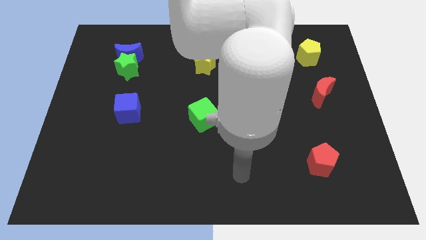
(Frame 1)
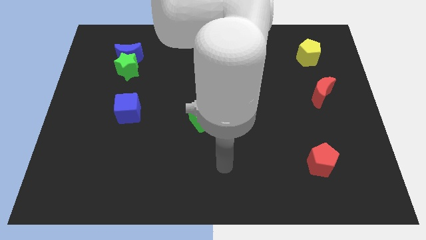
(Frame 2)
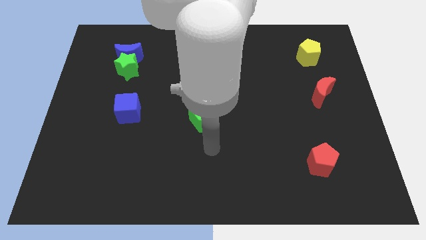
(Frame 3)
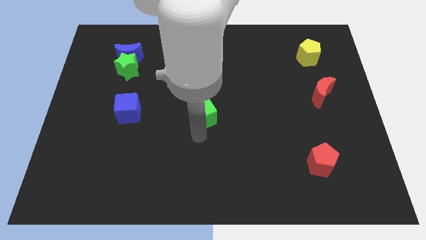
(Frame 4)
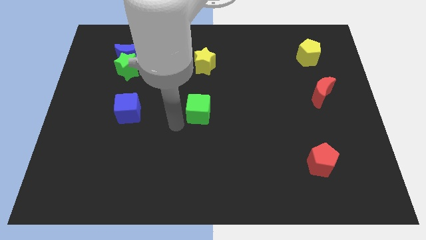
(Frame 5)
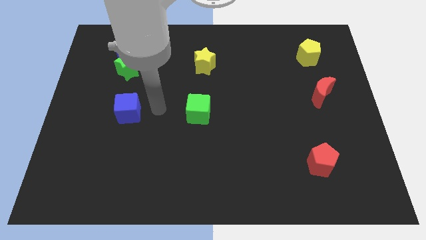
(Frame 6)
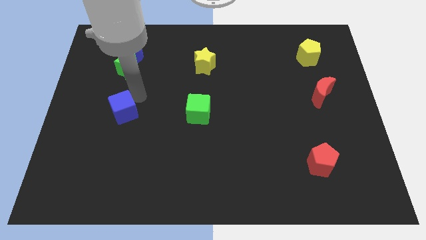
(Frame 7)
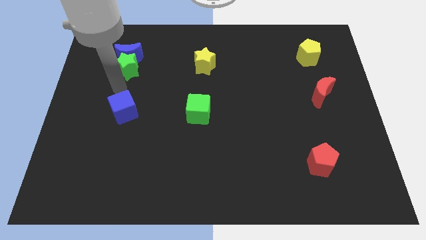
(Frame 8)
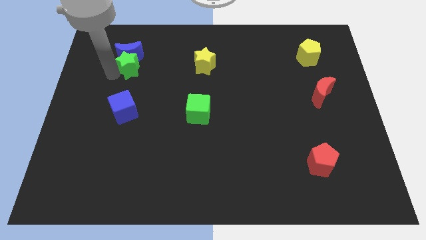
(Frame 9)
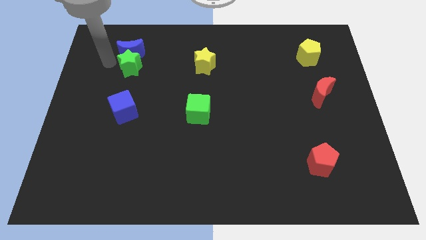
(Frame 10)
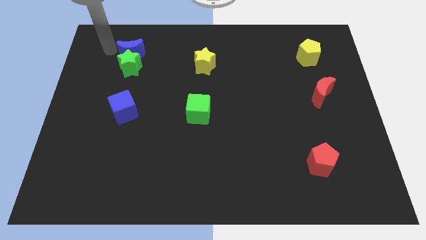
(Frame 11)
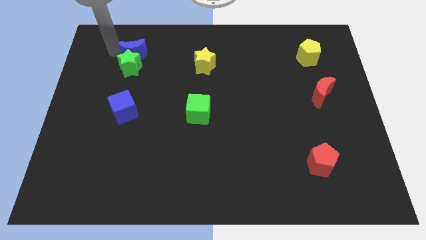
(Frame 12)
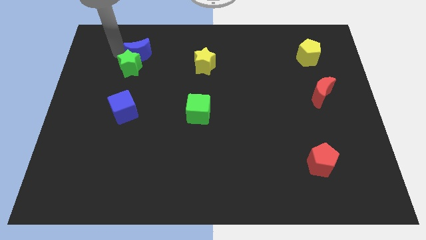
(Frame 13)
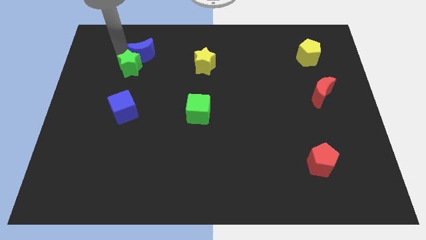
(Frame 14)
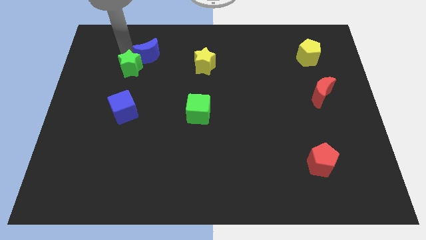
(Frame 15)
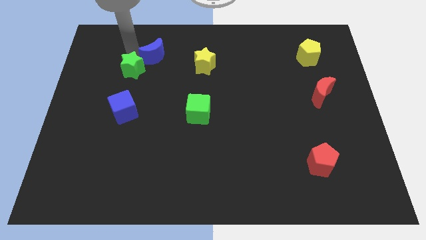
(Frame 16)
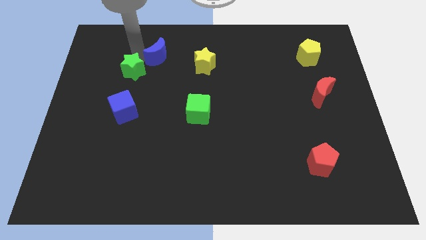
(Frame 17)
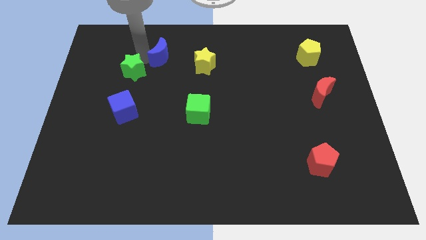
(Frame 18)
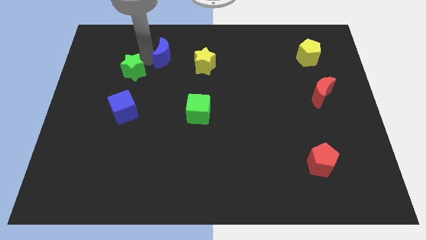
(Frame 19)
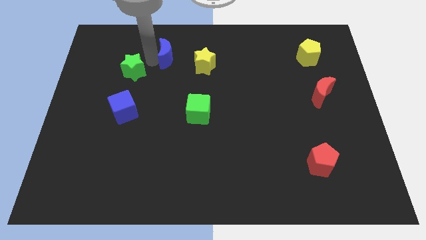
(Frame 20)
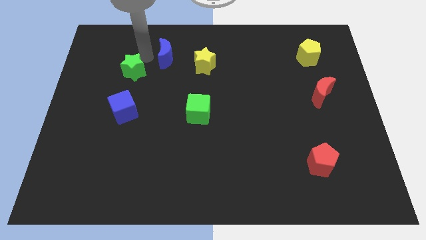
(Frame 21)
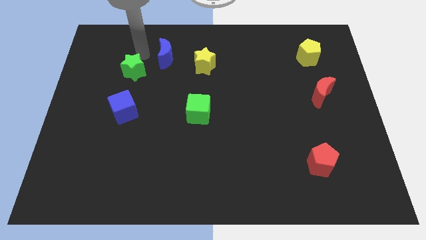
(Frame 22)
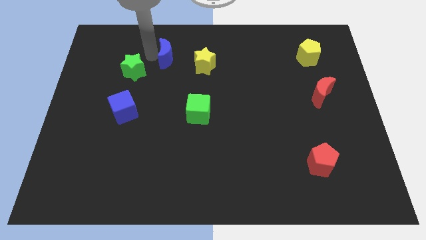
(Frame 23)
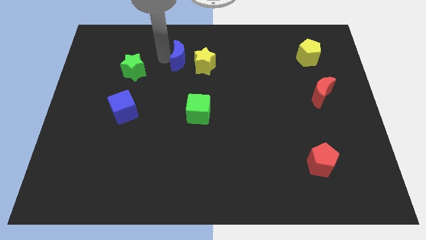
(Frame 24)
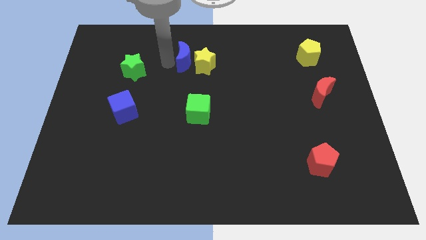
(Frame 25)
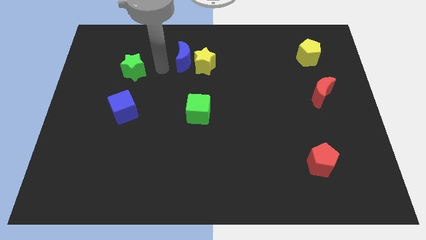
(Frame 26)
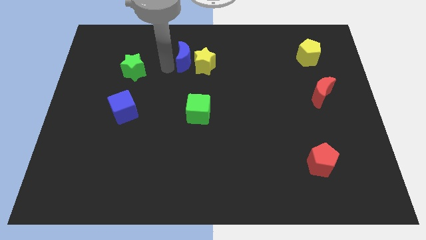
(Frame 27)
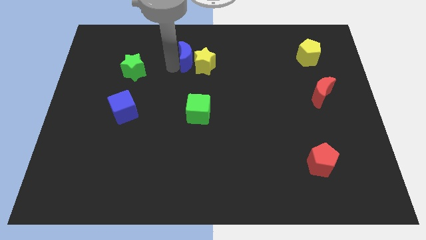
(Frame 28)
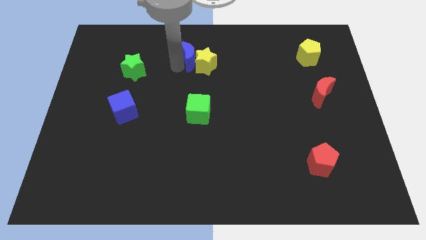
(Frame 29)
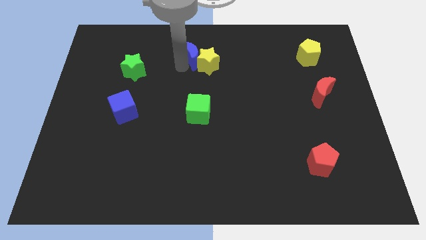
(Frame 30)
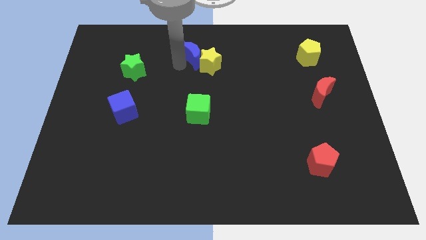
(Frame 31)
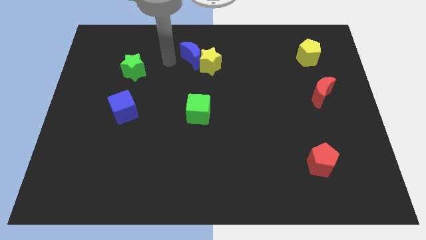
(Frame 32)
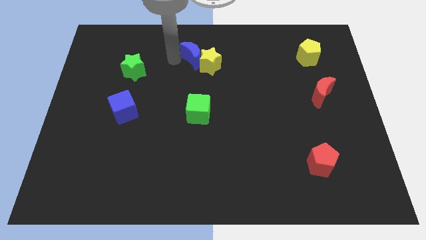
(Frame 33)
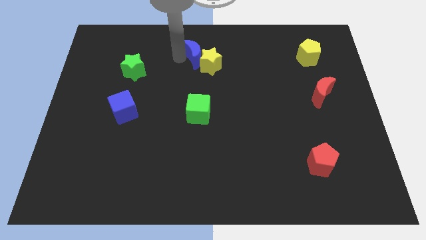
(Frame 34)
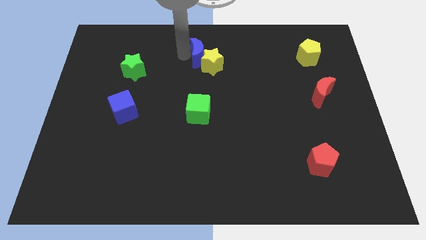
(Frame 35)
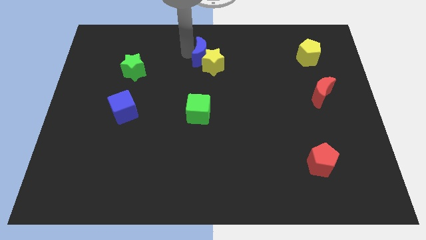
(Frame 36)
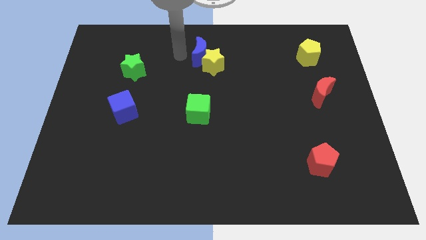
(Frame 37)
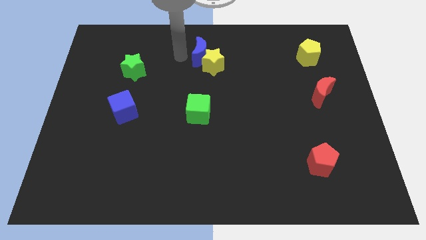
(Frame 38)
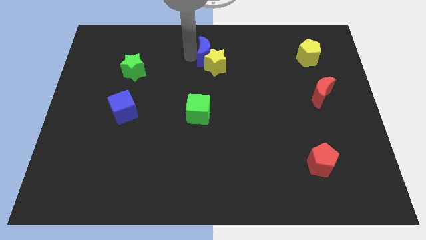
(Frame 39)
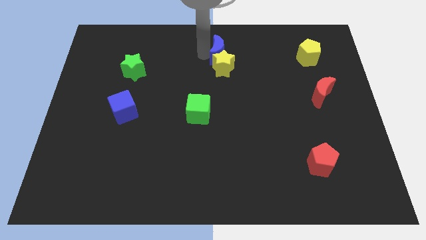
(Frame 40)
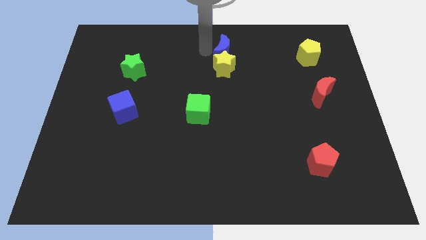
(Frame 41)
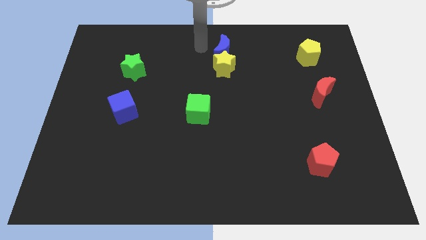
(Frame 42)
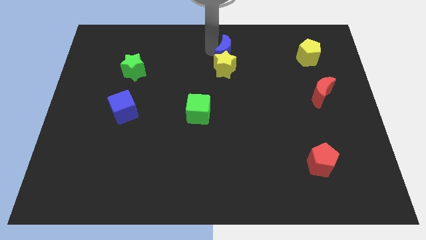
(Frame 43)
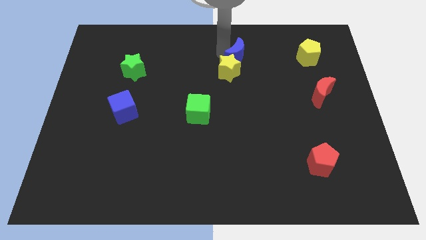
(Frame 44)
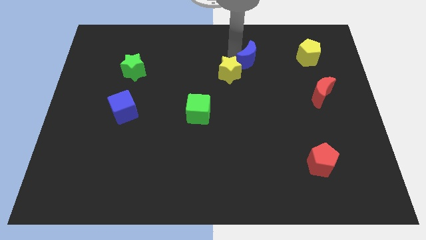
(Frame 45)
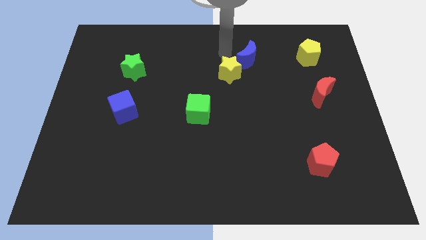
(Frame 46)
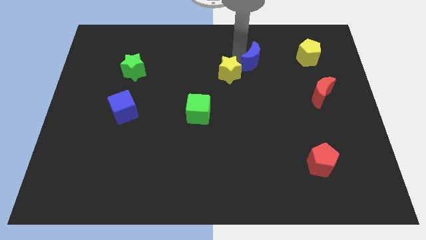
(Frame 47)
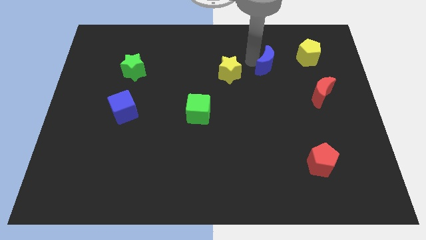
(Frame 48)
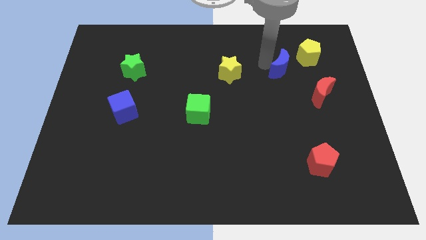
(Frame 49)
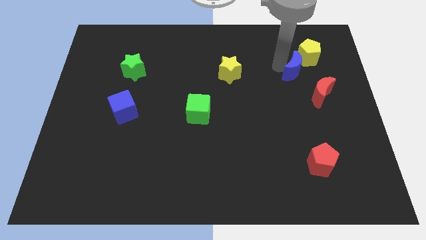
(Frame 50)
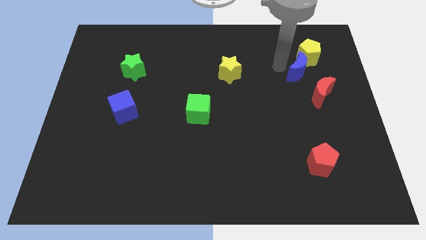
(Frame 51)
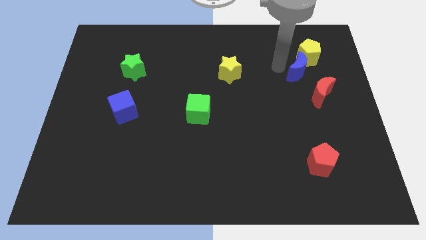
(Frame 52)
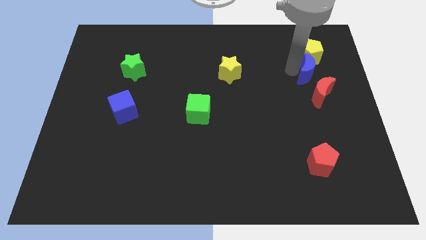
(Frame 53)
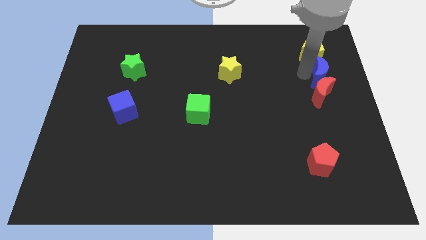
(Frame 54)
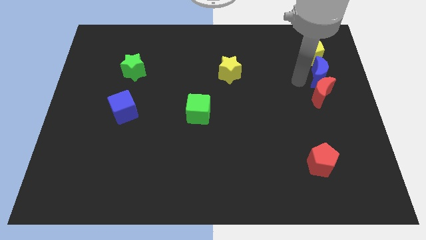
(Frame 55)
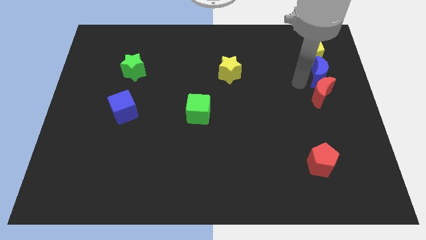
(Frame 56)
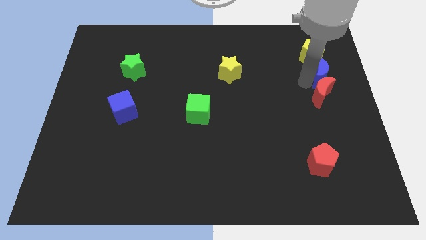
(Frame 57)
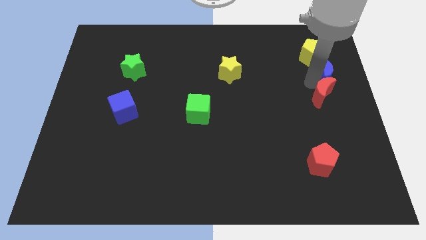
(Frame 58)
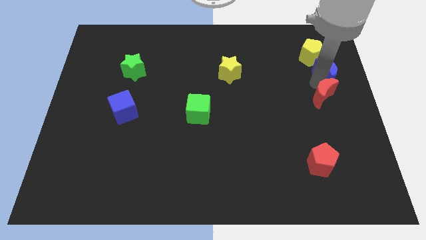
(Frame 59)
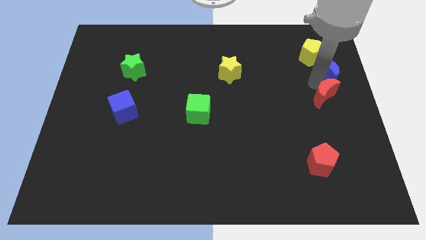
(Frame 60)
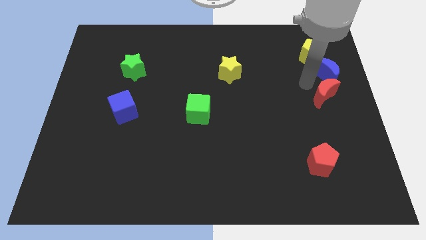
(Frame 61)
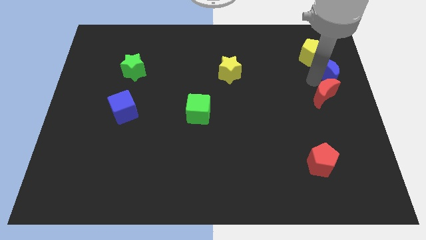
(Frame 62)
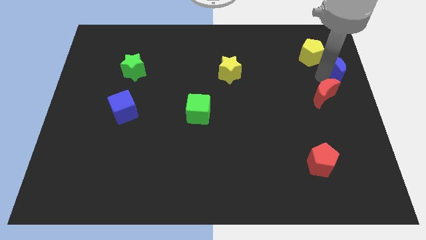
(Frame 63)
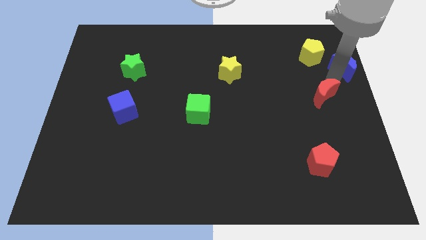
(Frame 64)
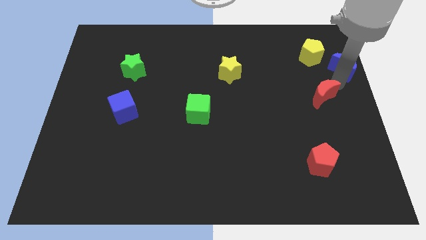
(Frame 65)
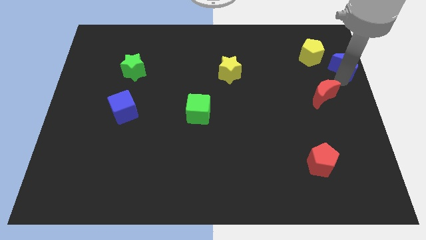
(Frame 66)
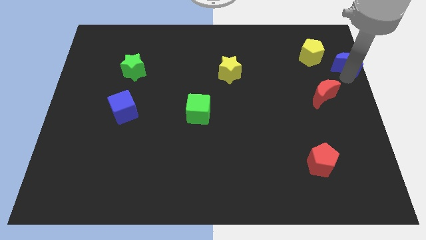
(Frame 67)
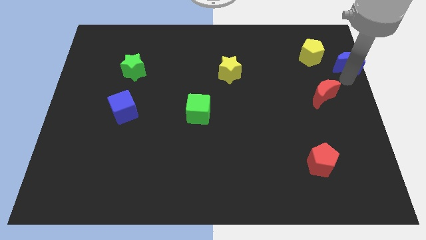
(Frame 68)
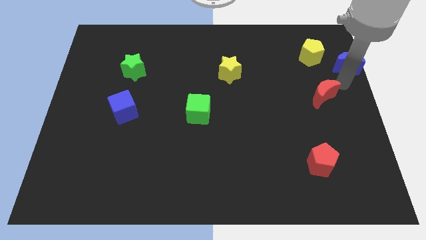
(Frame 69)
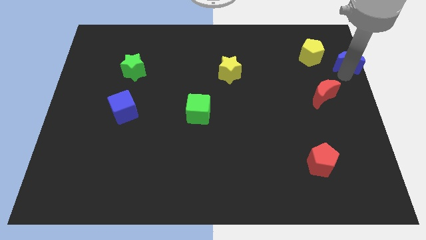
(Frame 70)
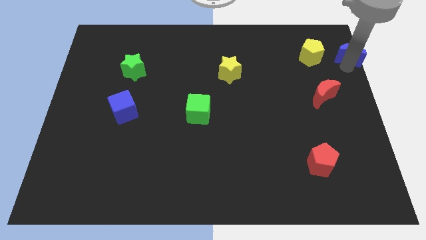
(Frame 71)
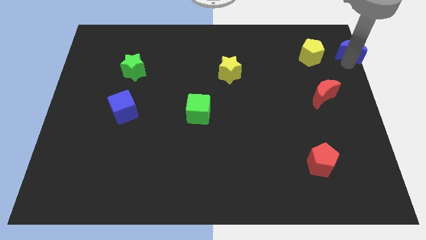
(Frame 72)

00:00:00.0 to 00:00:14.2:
push the blue moon to the top right
